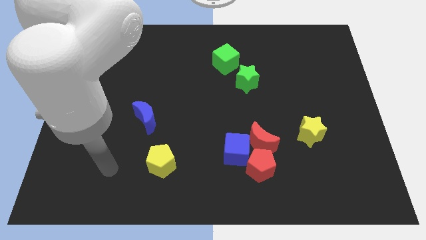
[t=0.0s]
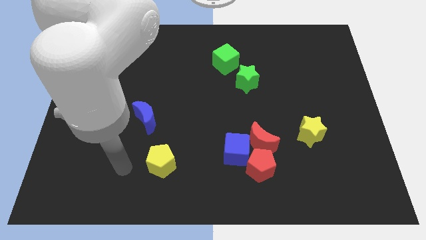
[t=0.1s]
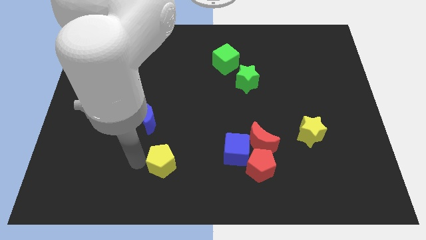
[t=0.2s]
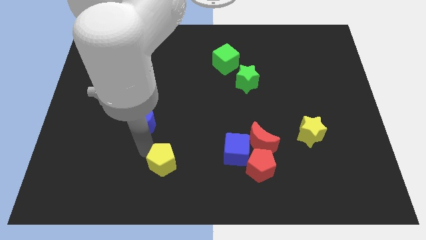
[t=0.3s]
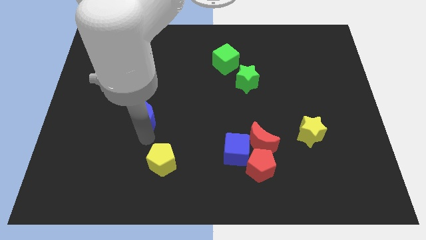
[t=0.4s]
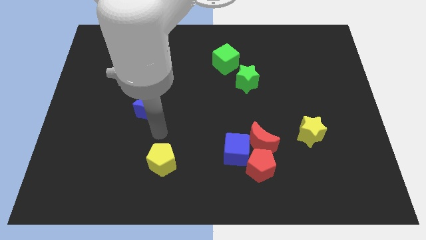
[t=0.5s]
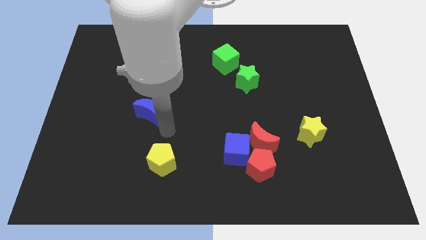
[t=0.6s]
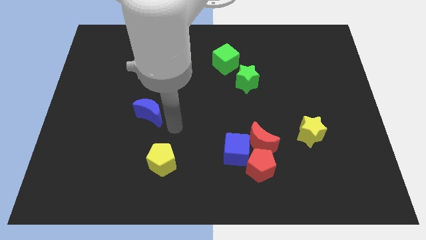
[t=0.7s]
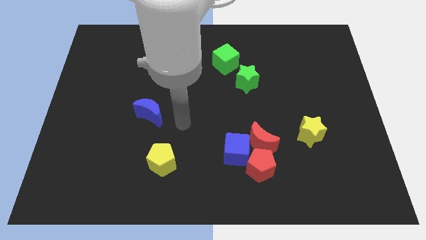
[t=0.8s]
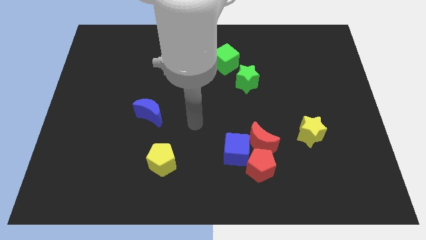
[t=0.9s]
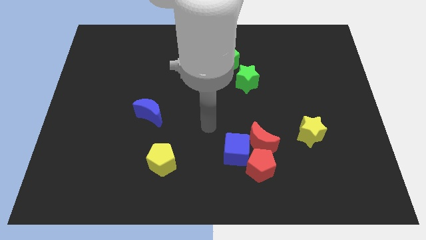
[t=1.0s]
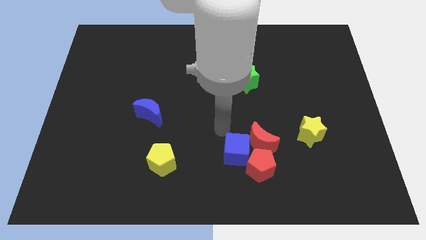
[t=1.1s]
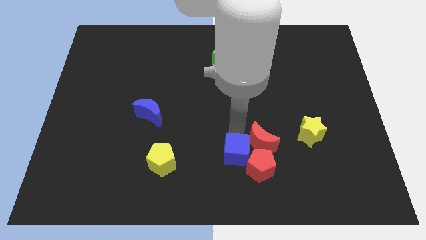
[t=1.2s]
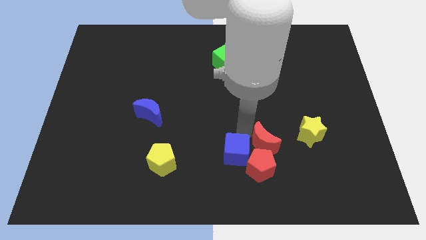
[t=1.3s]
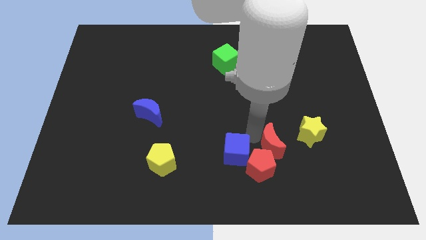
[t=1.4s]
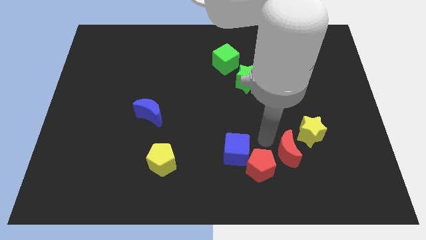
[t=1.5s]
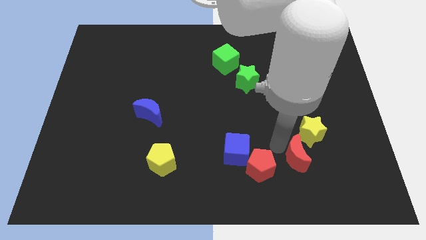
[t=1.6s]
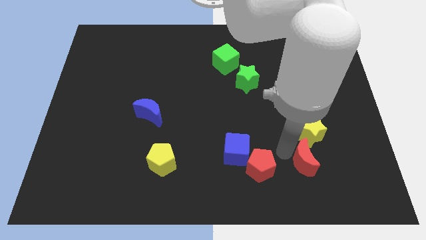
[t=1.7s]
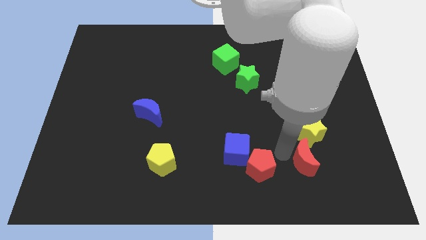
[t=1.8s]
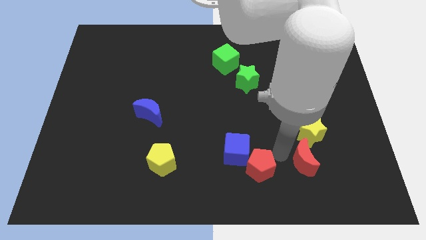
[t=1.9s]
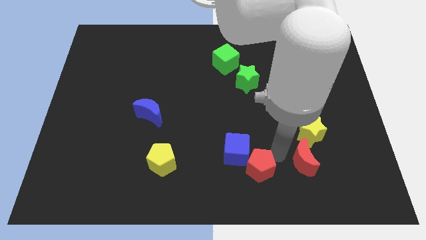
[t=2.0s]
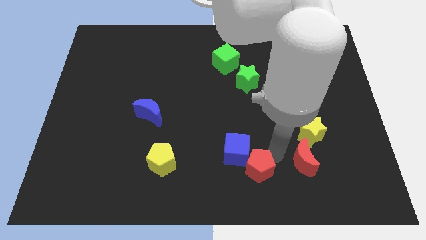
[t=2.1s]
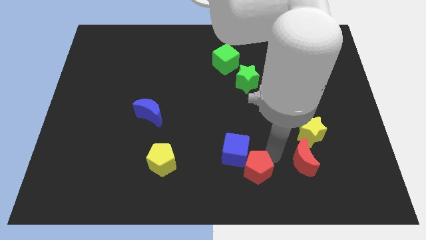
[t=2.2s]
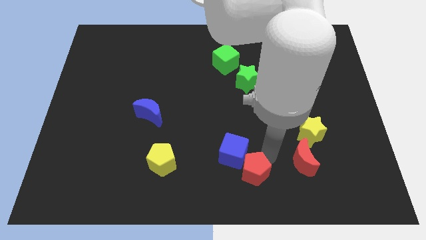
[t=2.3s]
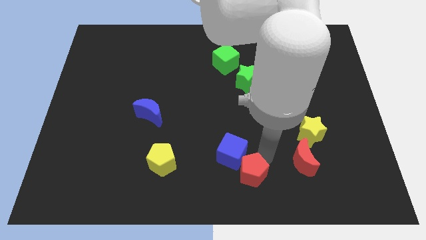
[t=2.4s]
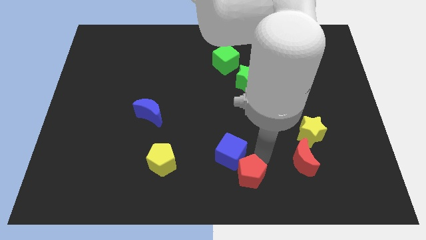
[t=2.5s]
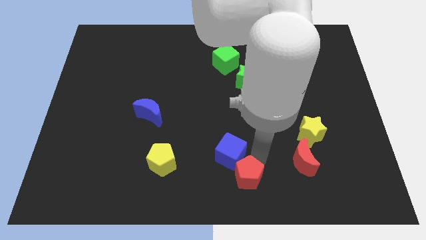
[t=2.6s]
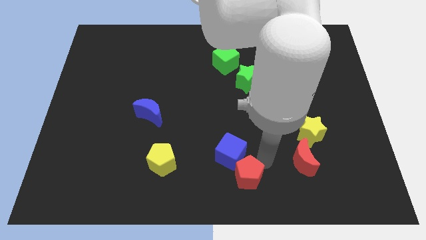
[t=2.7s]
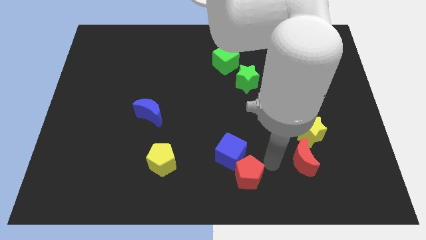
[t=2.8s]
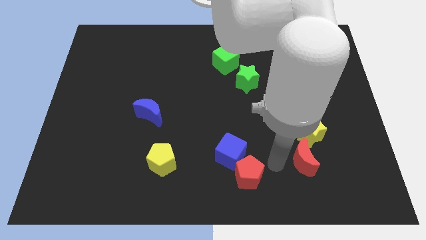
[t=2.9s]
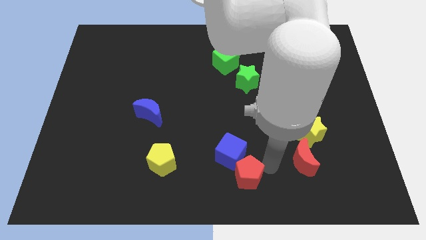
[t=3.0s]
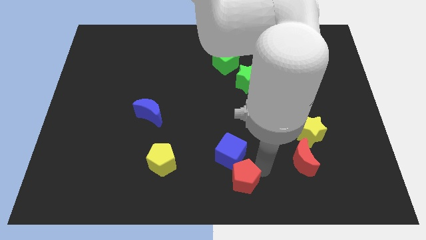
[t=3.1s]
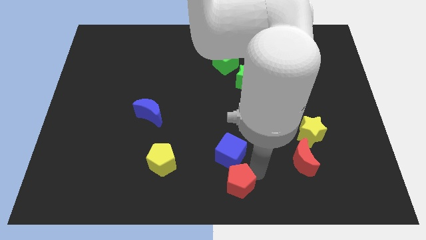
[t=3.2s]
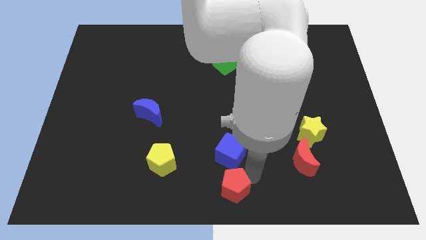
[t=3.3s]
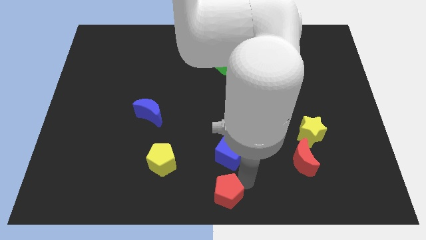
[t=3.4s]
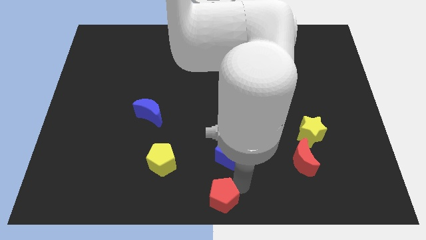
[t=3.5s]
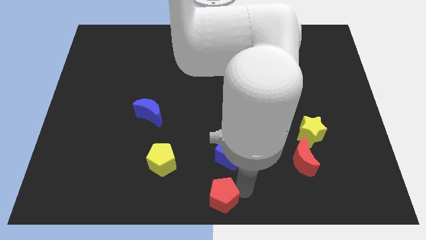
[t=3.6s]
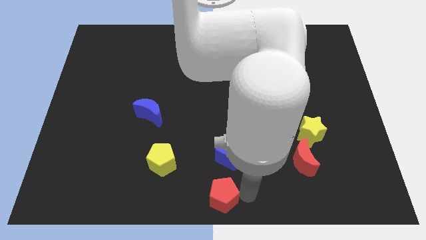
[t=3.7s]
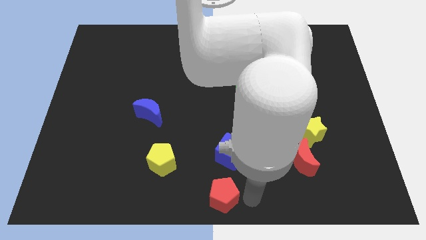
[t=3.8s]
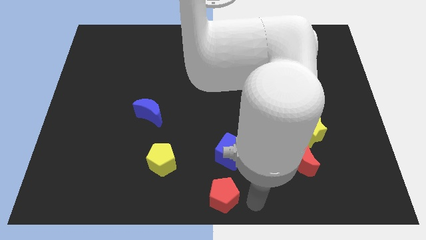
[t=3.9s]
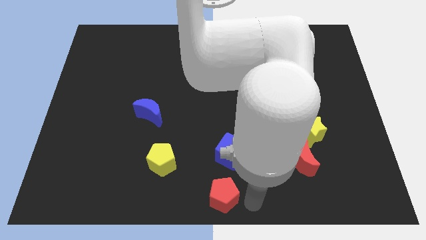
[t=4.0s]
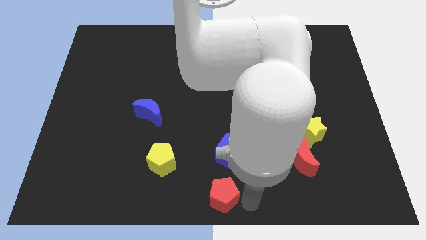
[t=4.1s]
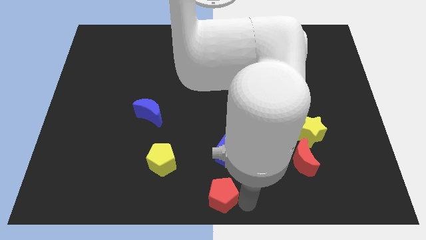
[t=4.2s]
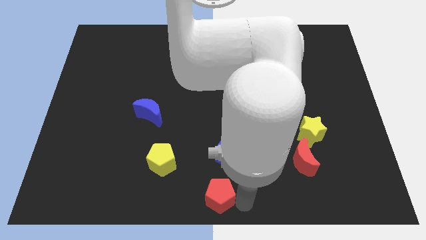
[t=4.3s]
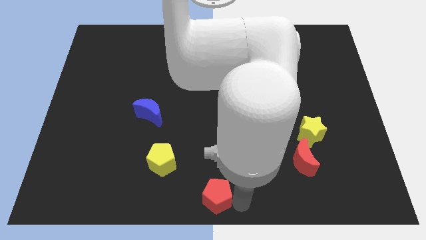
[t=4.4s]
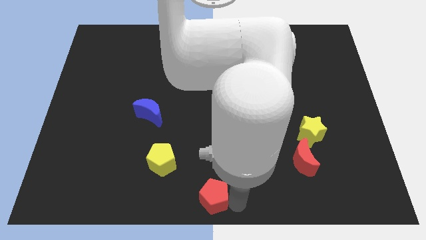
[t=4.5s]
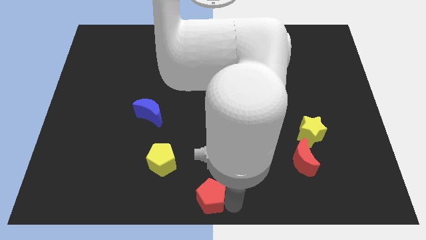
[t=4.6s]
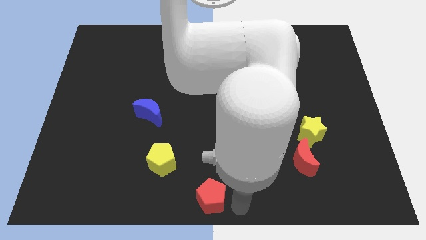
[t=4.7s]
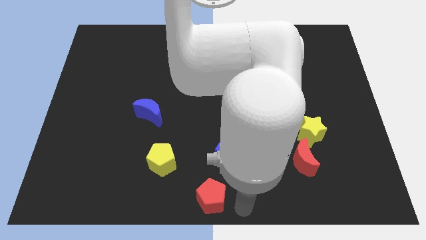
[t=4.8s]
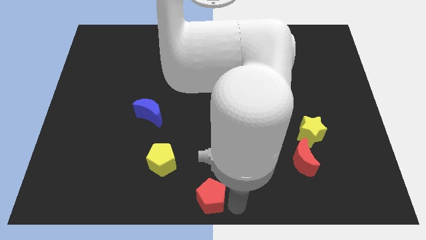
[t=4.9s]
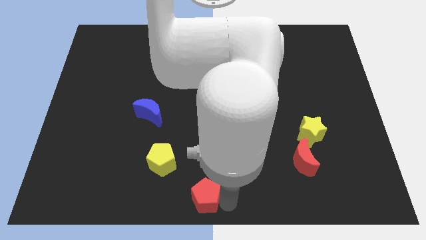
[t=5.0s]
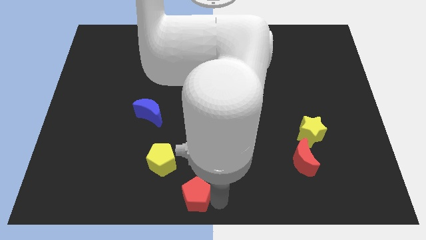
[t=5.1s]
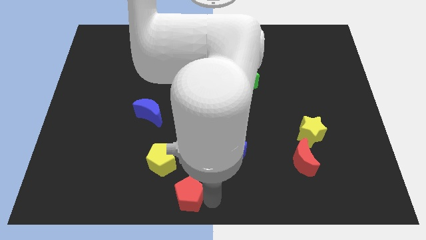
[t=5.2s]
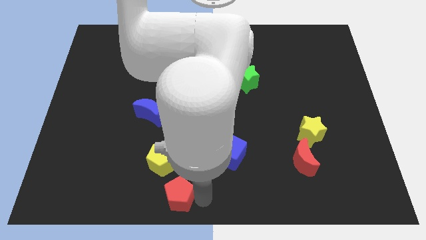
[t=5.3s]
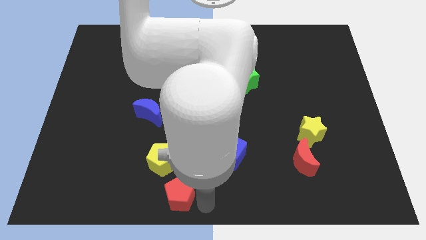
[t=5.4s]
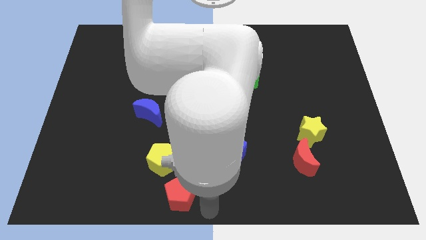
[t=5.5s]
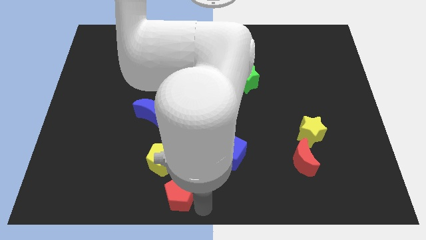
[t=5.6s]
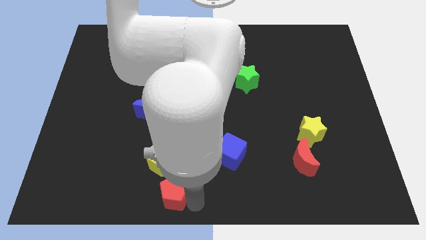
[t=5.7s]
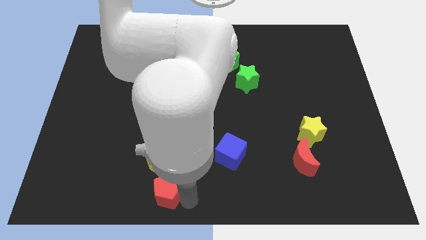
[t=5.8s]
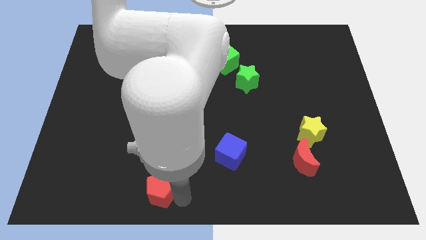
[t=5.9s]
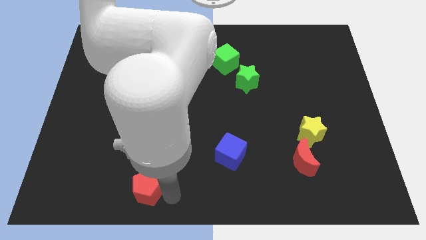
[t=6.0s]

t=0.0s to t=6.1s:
move the red pentagon to the left

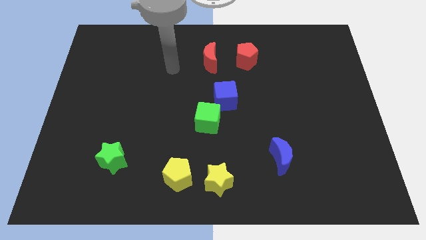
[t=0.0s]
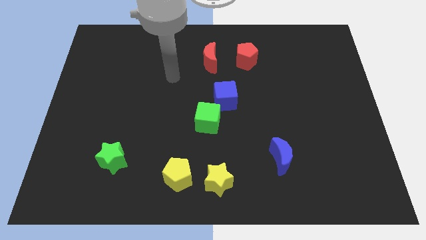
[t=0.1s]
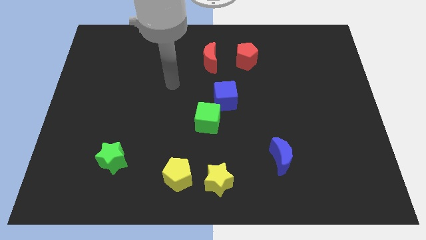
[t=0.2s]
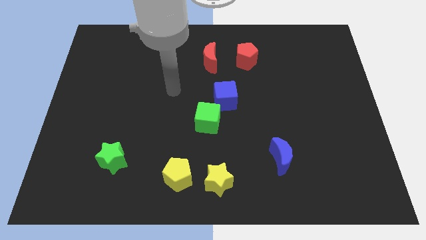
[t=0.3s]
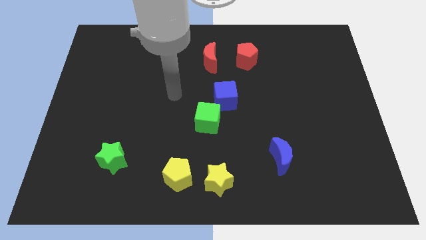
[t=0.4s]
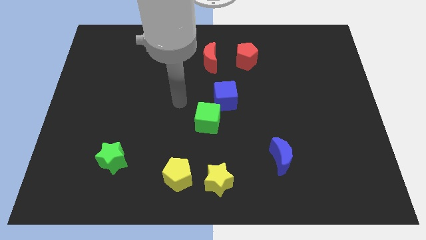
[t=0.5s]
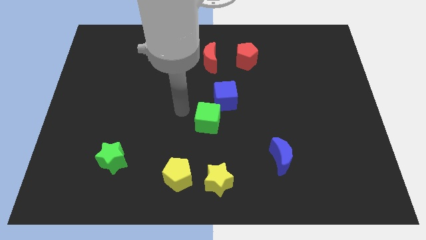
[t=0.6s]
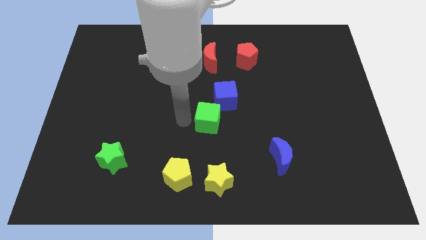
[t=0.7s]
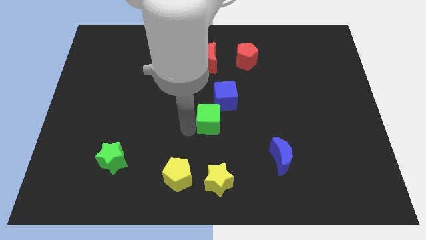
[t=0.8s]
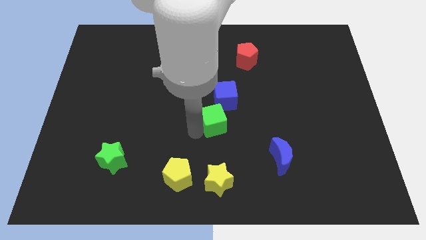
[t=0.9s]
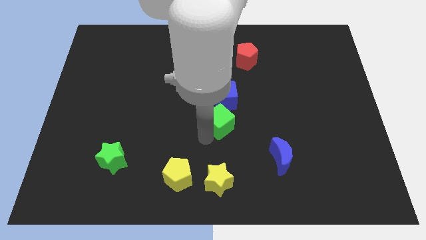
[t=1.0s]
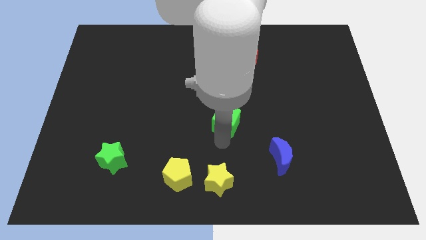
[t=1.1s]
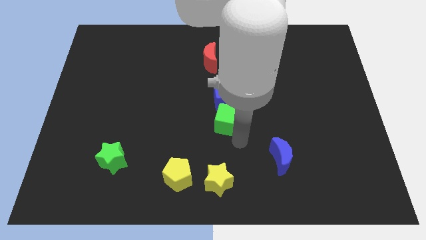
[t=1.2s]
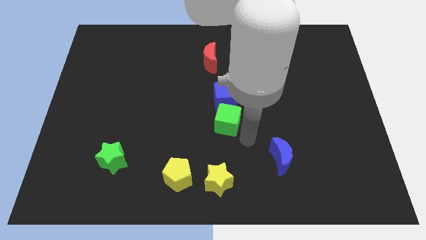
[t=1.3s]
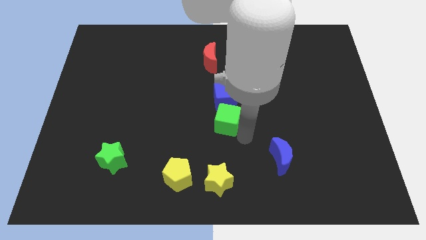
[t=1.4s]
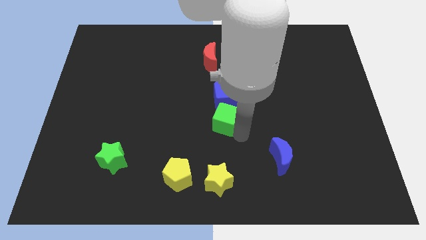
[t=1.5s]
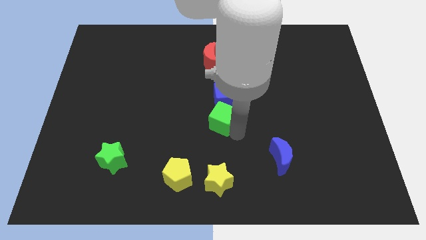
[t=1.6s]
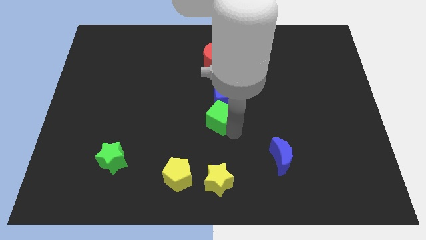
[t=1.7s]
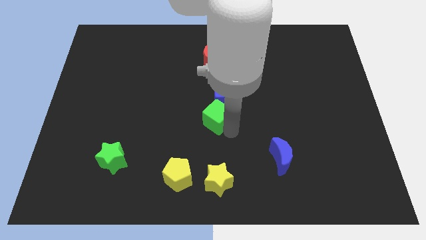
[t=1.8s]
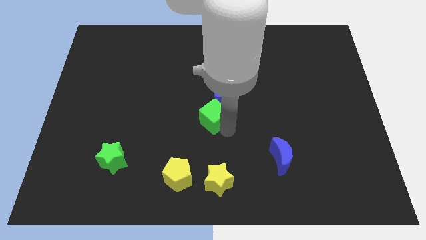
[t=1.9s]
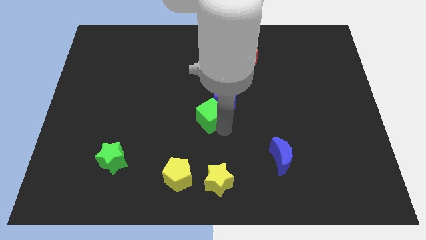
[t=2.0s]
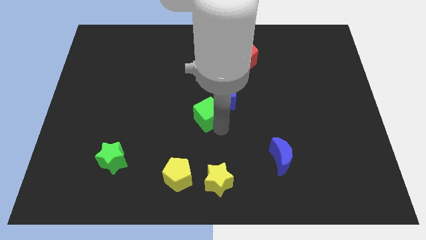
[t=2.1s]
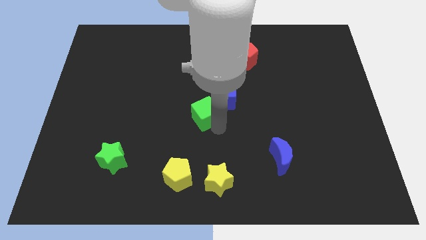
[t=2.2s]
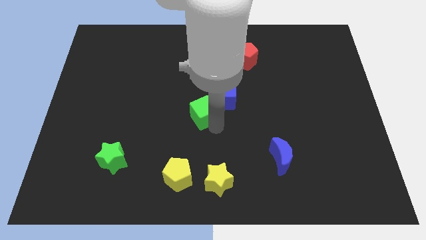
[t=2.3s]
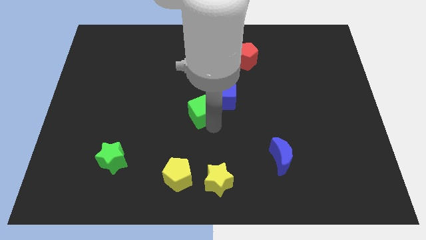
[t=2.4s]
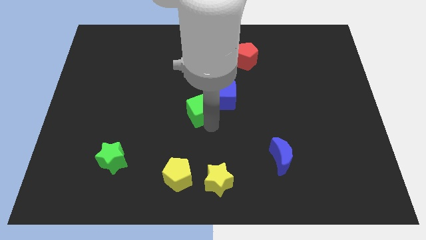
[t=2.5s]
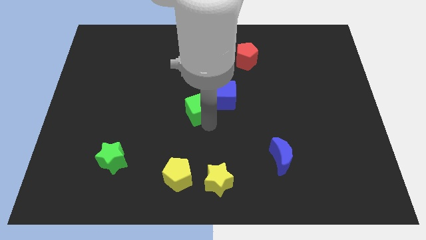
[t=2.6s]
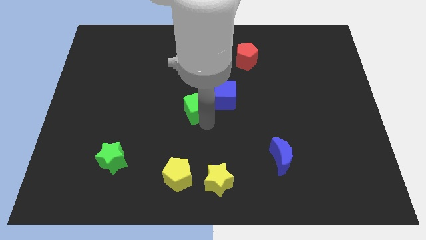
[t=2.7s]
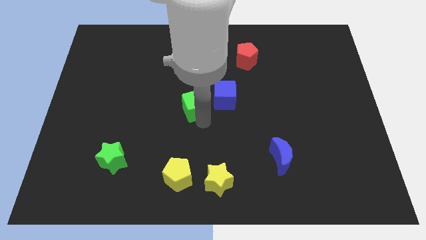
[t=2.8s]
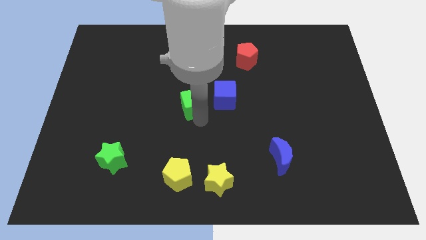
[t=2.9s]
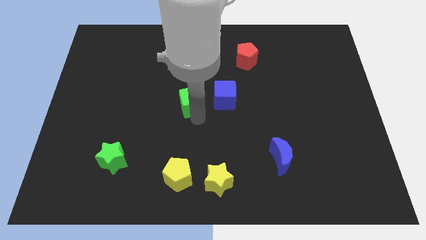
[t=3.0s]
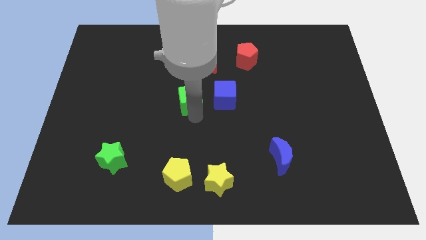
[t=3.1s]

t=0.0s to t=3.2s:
slightly push the green cube diagonally upwards and left
